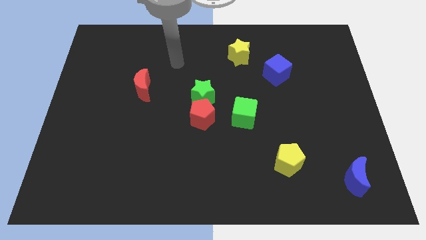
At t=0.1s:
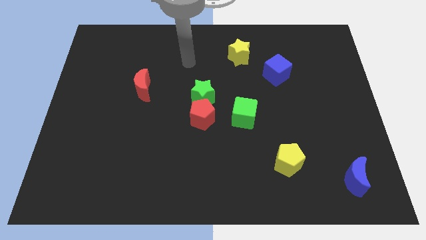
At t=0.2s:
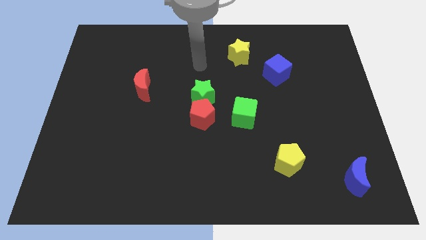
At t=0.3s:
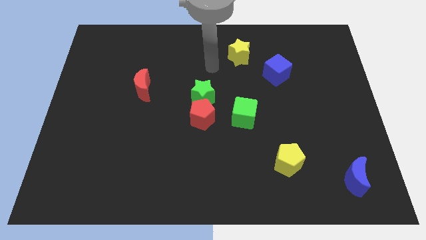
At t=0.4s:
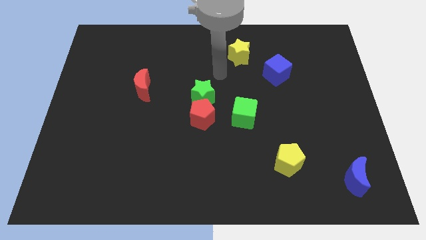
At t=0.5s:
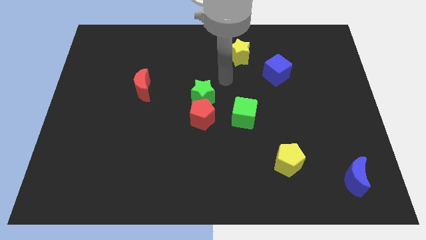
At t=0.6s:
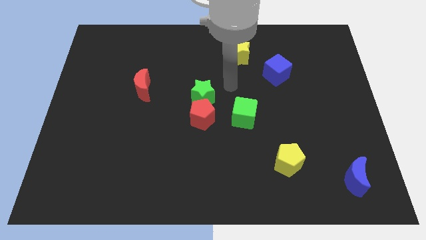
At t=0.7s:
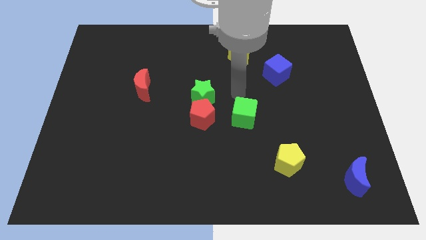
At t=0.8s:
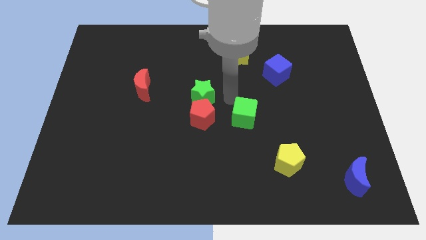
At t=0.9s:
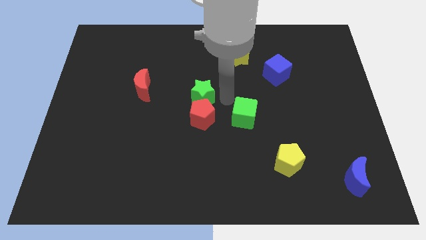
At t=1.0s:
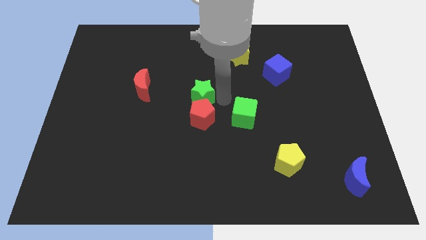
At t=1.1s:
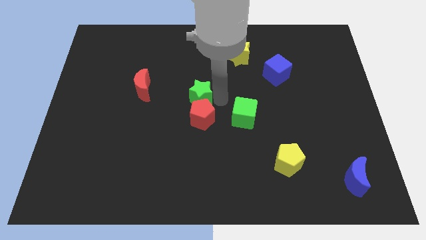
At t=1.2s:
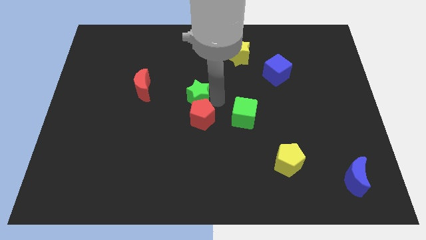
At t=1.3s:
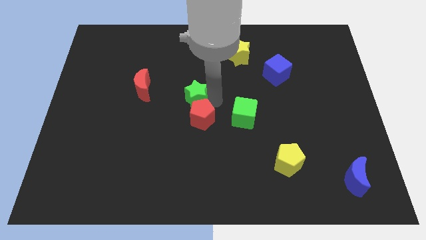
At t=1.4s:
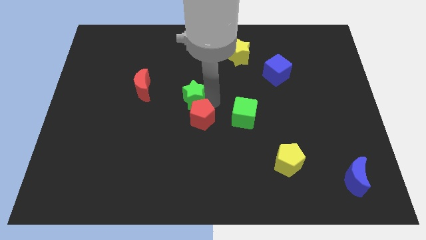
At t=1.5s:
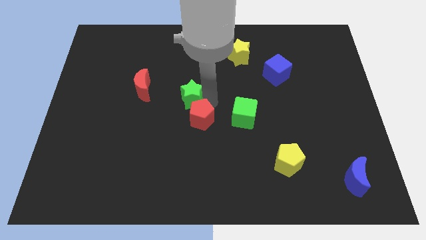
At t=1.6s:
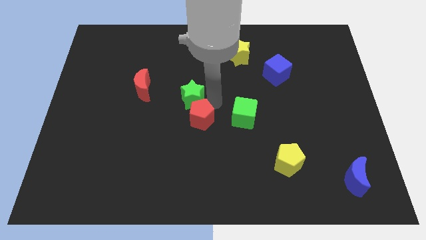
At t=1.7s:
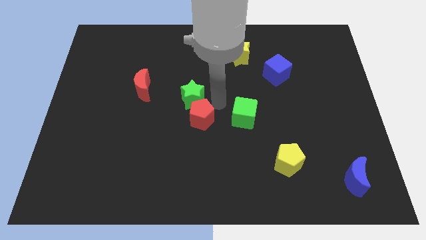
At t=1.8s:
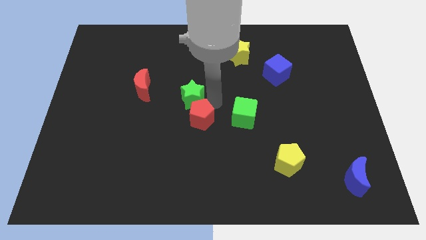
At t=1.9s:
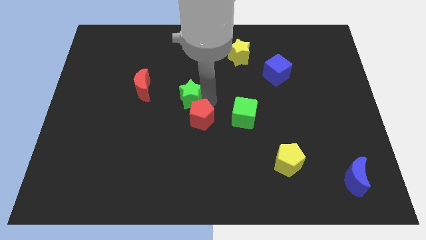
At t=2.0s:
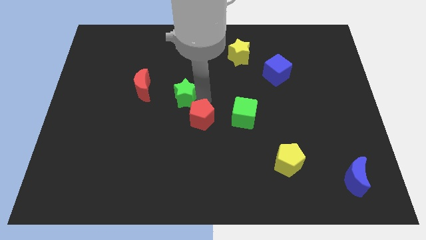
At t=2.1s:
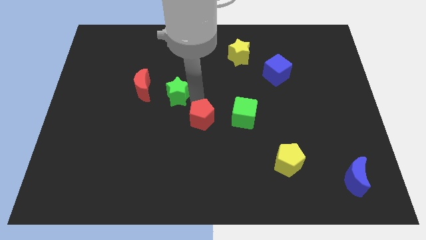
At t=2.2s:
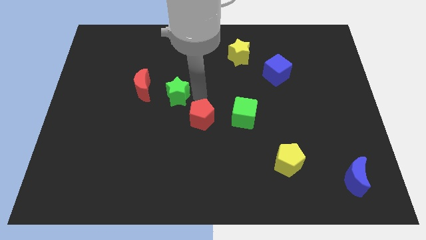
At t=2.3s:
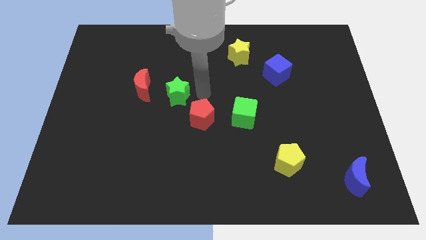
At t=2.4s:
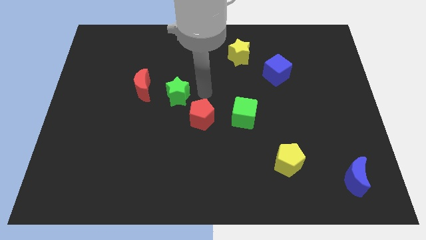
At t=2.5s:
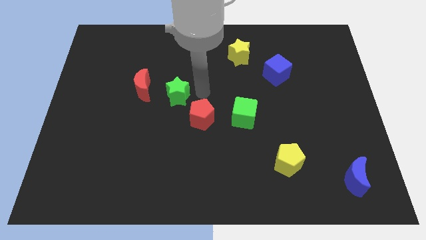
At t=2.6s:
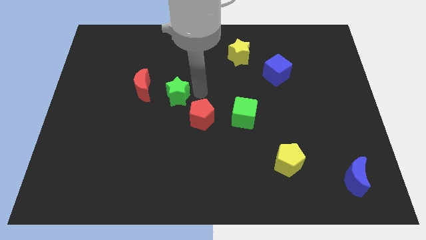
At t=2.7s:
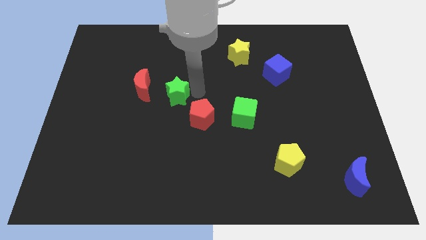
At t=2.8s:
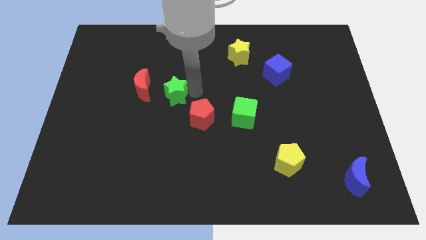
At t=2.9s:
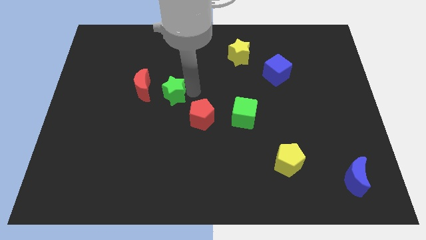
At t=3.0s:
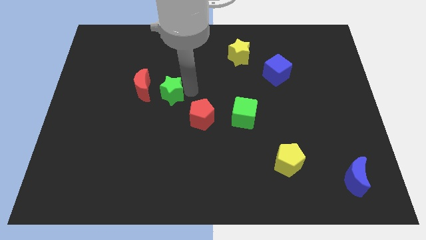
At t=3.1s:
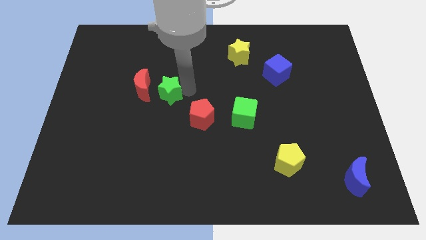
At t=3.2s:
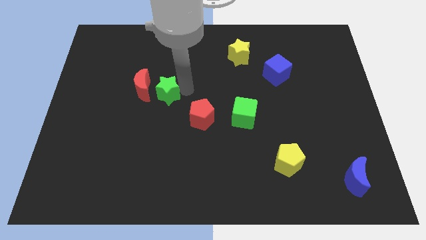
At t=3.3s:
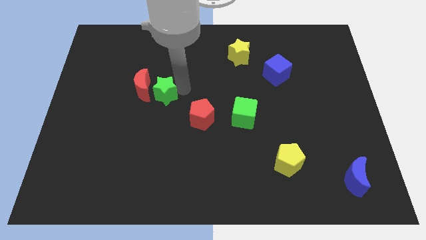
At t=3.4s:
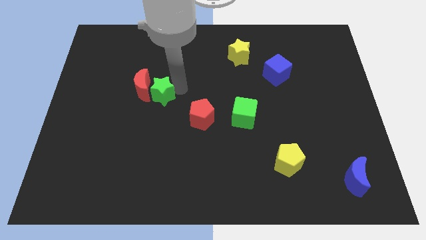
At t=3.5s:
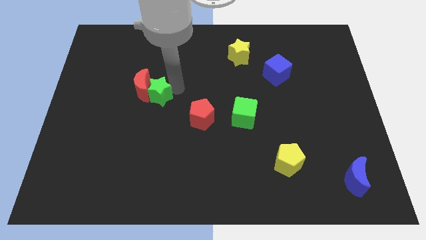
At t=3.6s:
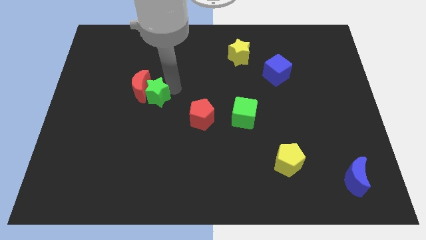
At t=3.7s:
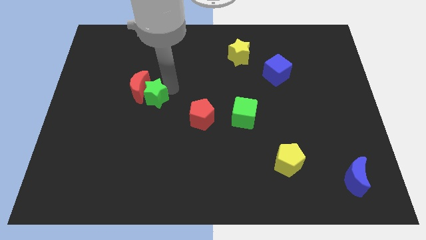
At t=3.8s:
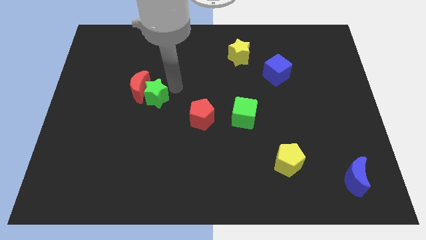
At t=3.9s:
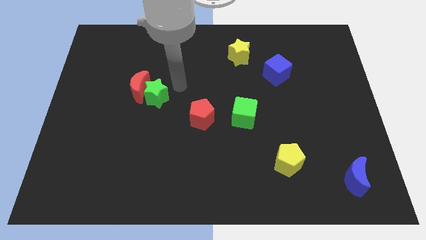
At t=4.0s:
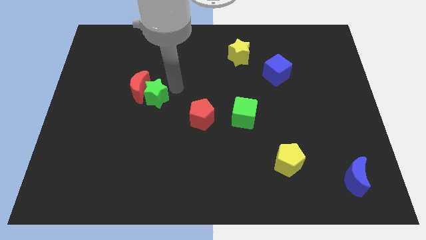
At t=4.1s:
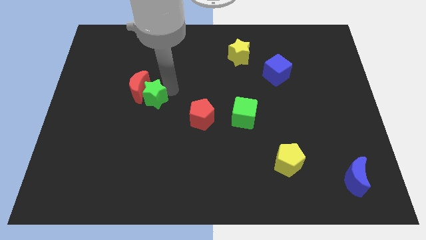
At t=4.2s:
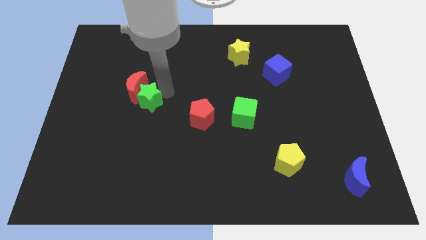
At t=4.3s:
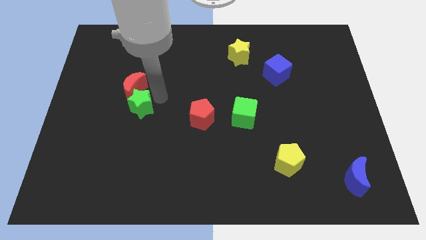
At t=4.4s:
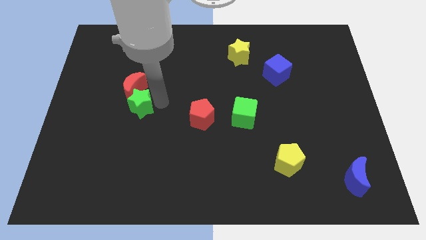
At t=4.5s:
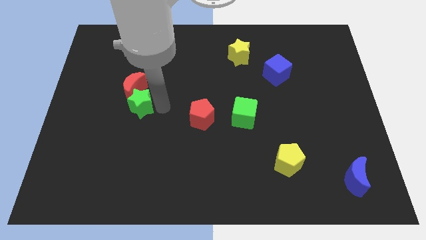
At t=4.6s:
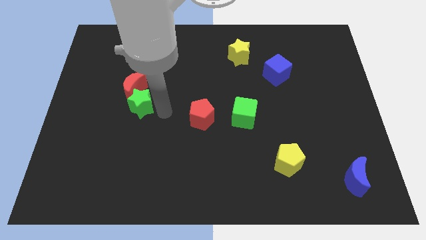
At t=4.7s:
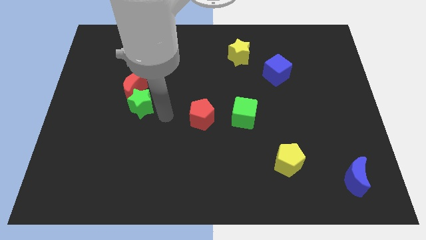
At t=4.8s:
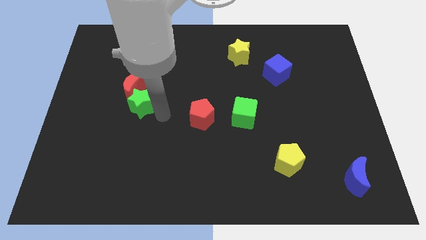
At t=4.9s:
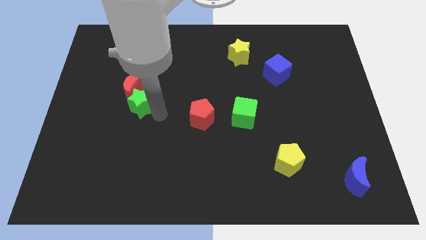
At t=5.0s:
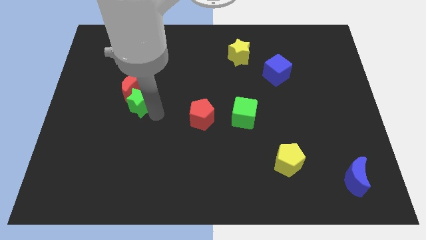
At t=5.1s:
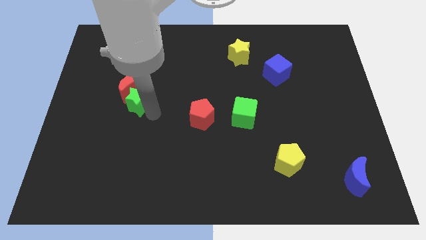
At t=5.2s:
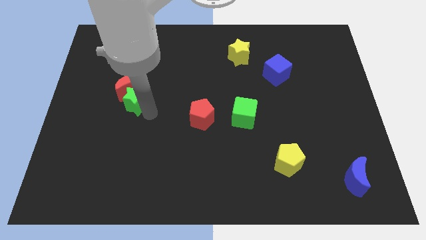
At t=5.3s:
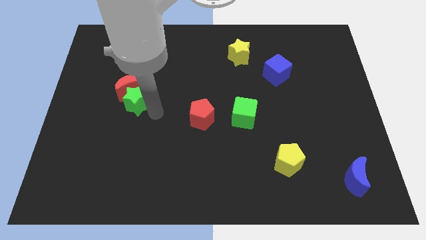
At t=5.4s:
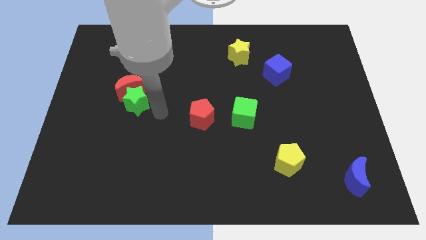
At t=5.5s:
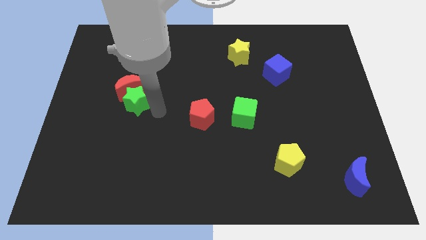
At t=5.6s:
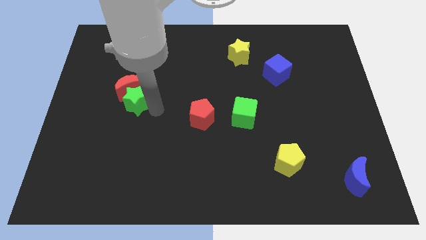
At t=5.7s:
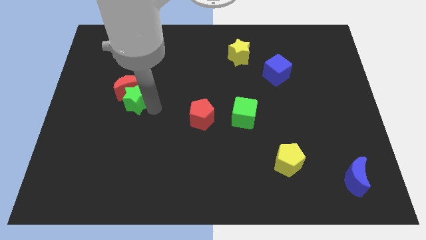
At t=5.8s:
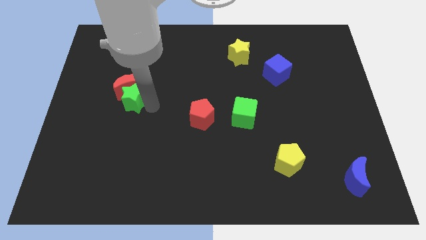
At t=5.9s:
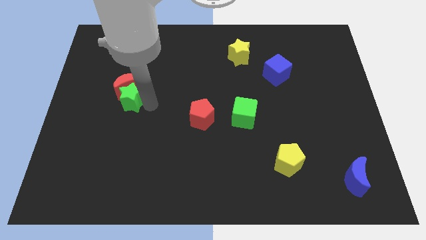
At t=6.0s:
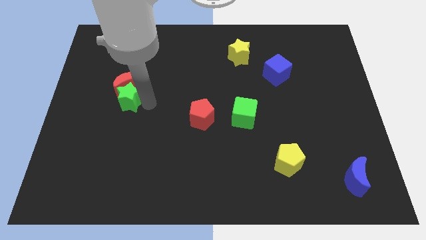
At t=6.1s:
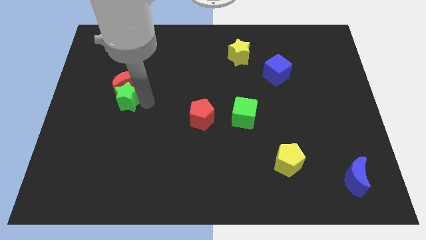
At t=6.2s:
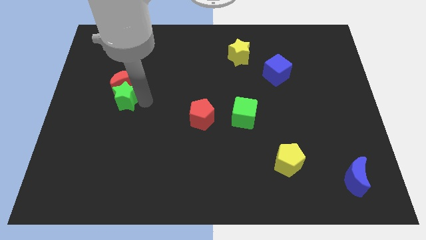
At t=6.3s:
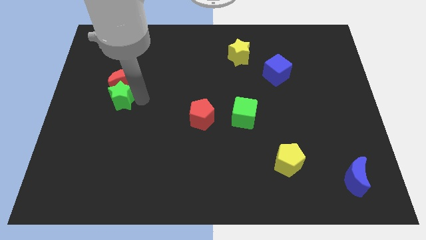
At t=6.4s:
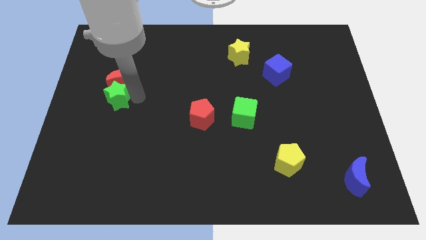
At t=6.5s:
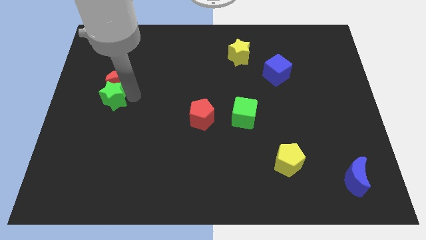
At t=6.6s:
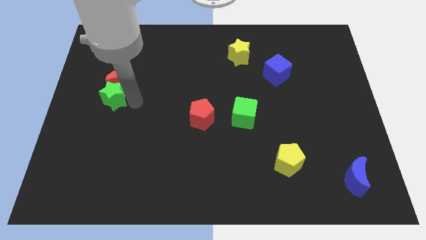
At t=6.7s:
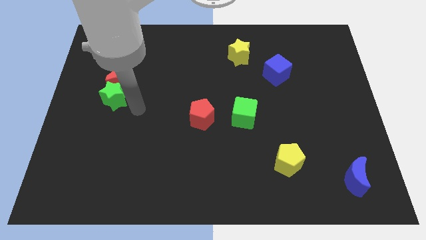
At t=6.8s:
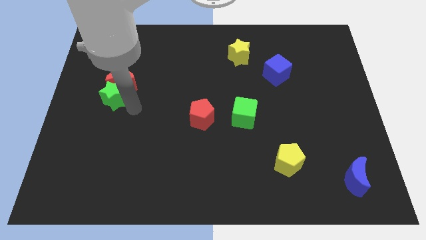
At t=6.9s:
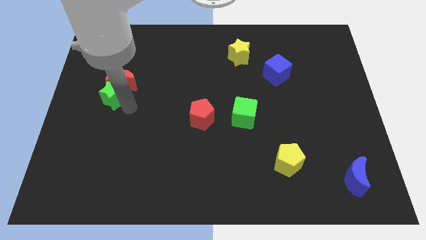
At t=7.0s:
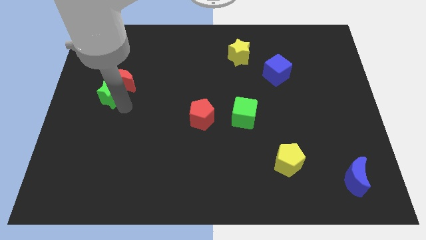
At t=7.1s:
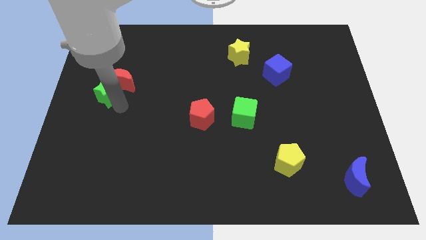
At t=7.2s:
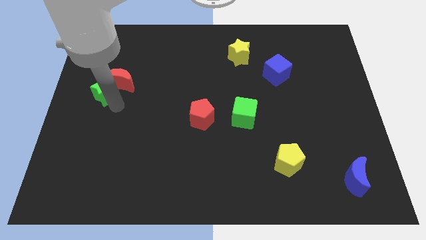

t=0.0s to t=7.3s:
push the green star left of the red moon

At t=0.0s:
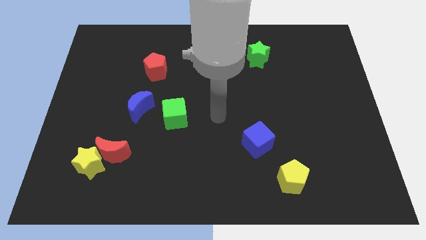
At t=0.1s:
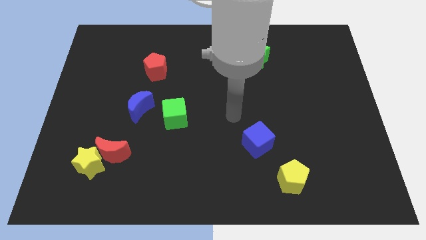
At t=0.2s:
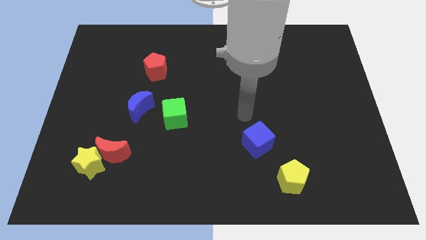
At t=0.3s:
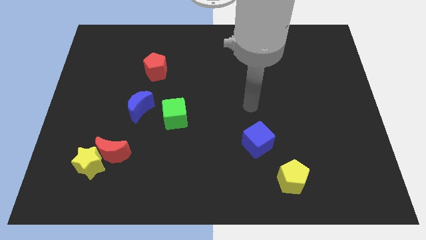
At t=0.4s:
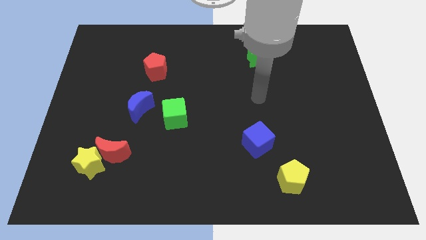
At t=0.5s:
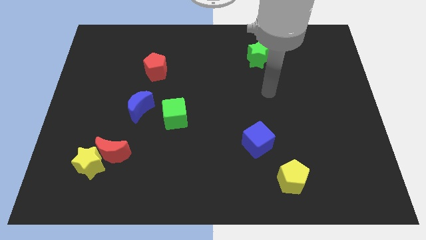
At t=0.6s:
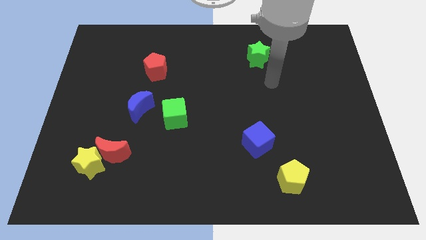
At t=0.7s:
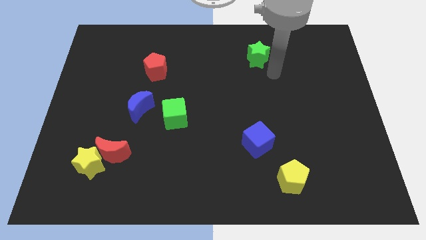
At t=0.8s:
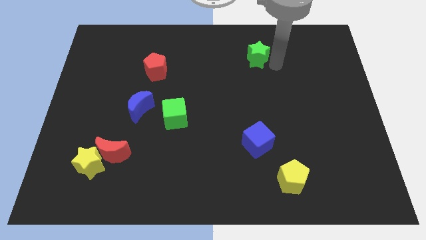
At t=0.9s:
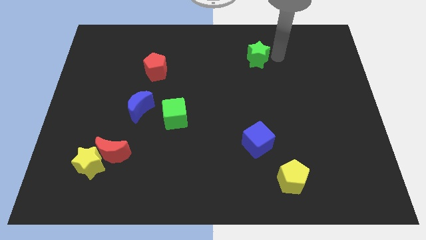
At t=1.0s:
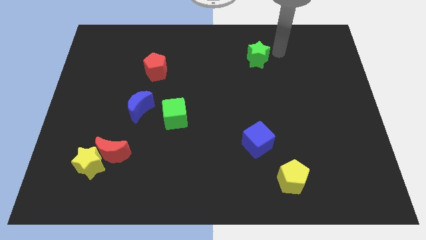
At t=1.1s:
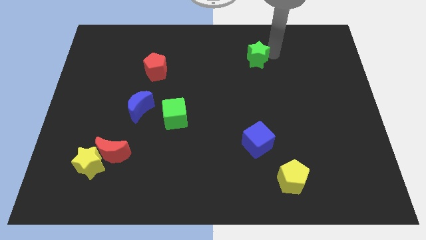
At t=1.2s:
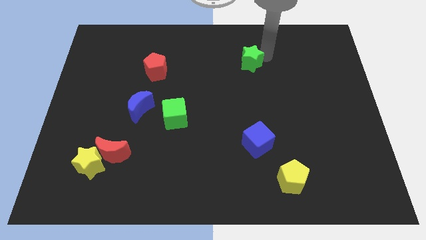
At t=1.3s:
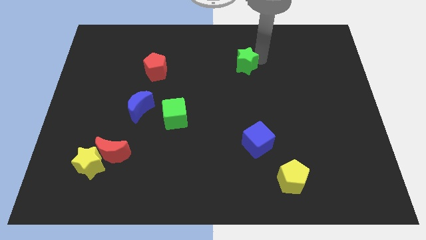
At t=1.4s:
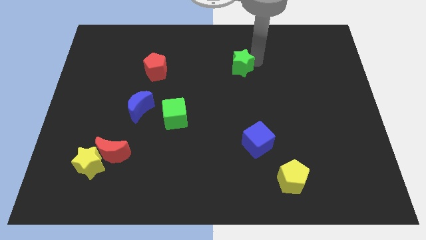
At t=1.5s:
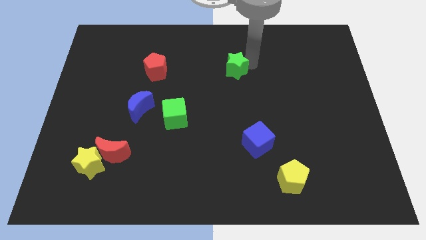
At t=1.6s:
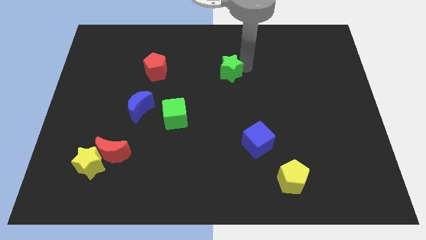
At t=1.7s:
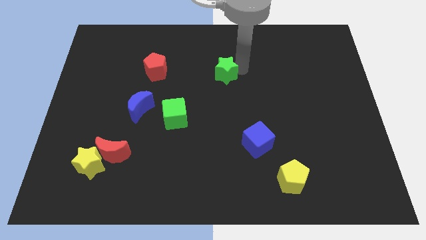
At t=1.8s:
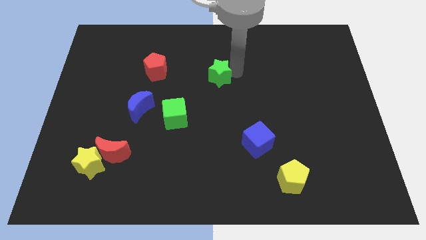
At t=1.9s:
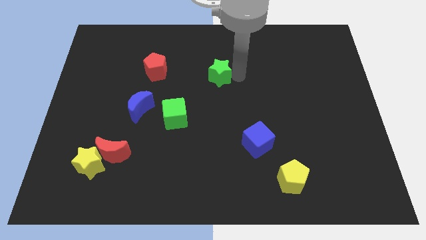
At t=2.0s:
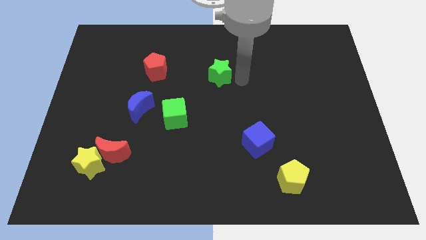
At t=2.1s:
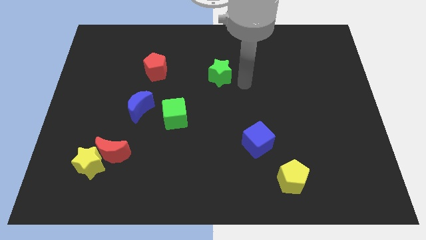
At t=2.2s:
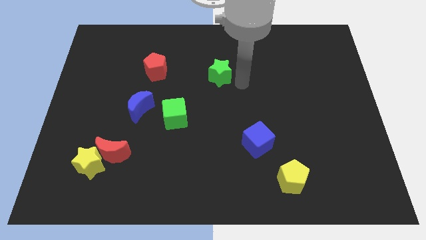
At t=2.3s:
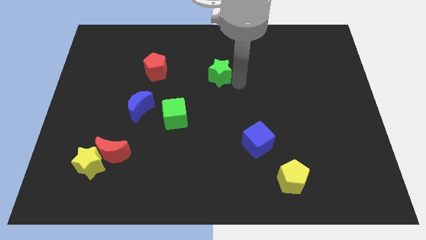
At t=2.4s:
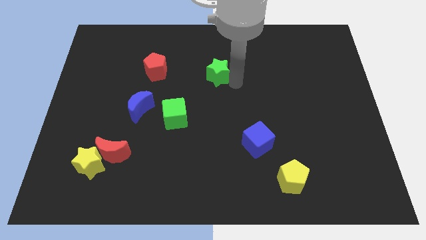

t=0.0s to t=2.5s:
move the green star just right of the red pentagon
